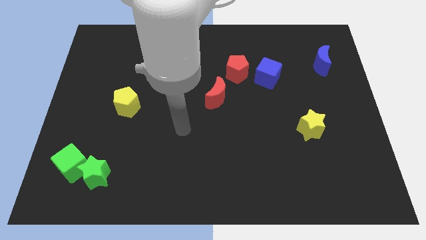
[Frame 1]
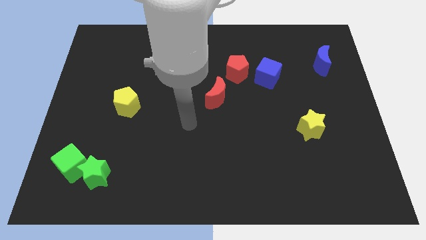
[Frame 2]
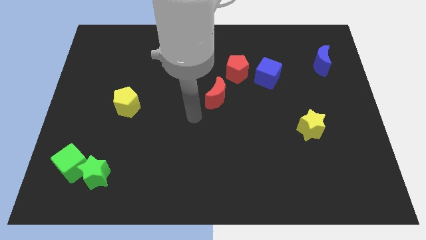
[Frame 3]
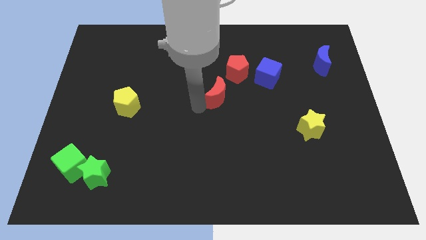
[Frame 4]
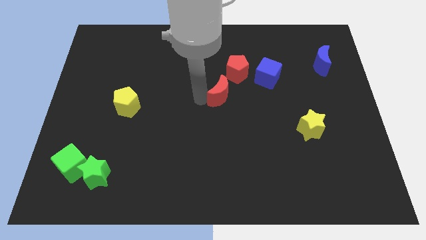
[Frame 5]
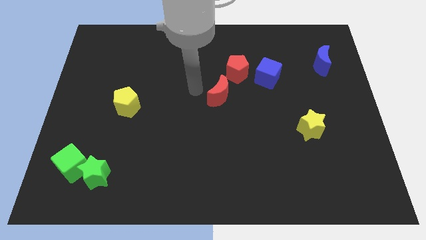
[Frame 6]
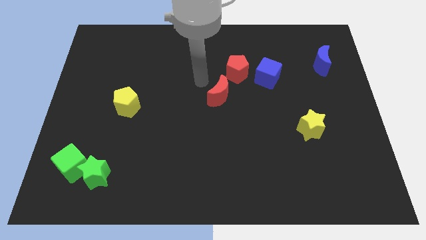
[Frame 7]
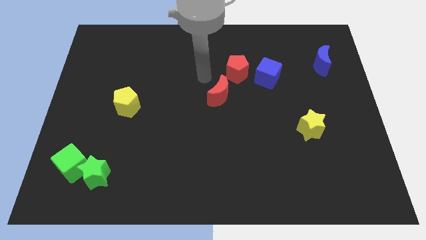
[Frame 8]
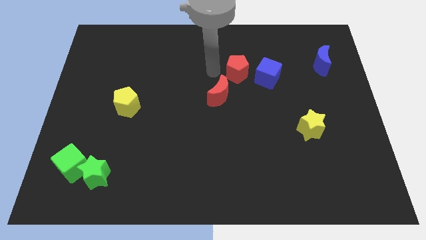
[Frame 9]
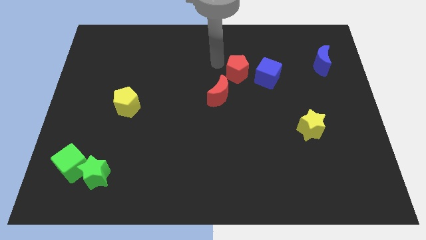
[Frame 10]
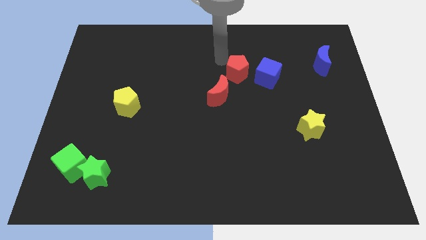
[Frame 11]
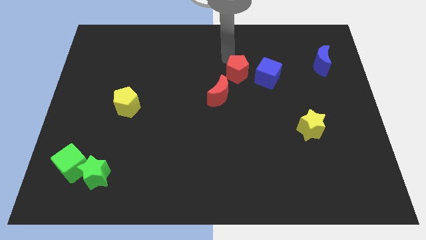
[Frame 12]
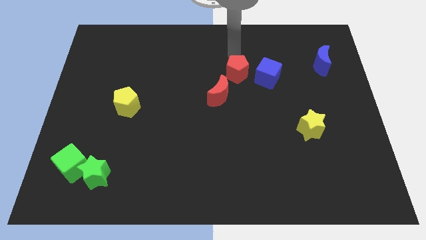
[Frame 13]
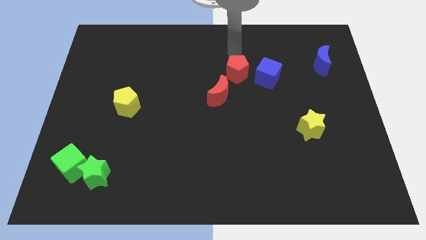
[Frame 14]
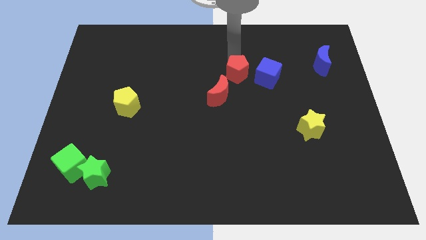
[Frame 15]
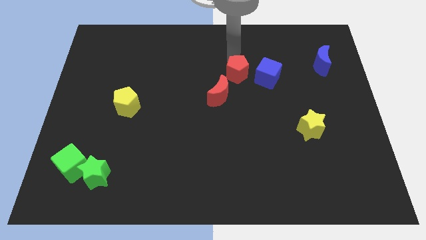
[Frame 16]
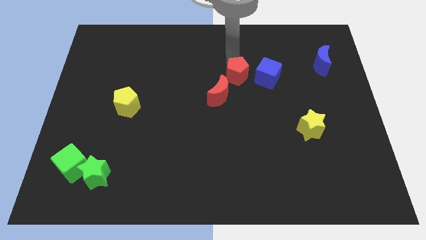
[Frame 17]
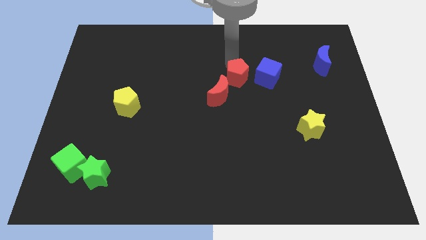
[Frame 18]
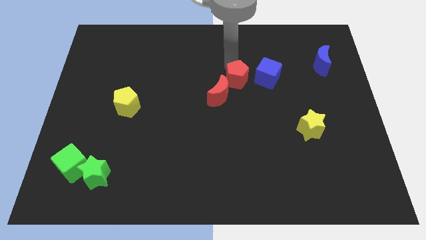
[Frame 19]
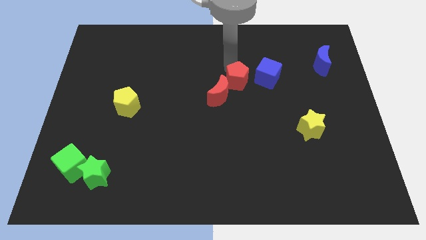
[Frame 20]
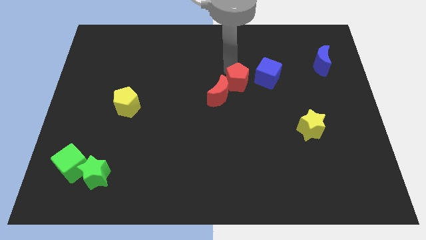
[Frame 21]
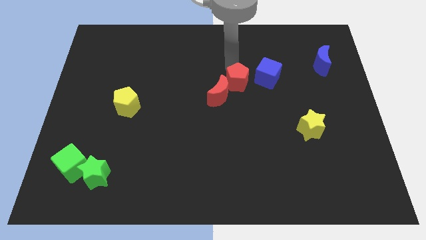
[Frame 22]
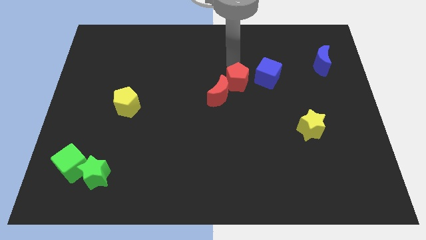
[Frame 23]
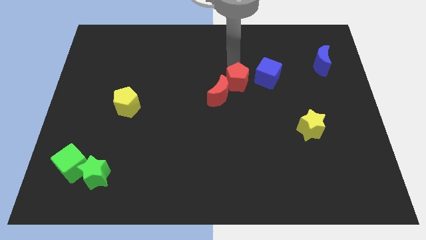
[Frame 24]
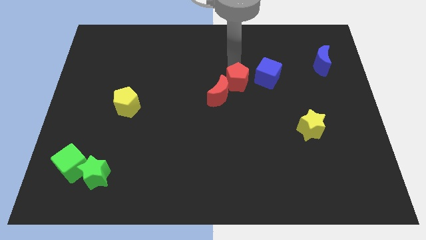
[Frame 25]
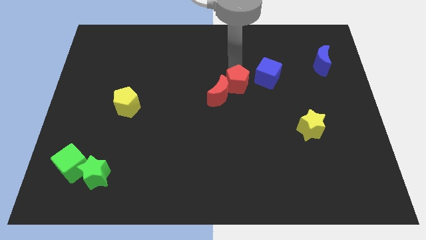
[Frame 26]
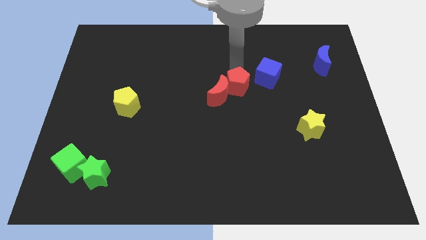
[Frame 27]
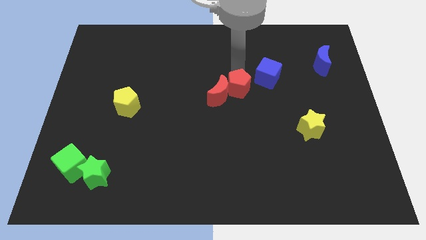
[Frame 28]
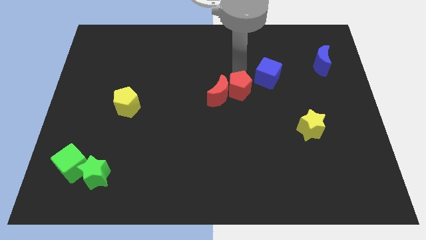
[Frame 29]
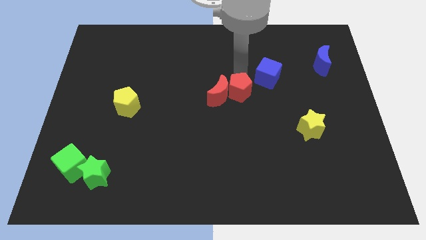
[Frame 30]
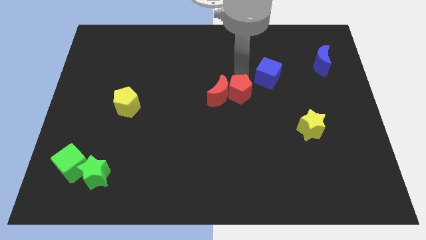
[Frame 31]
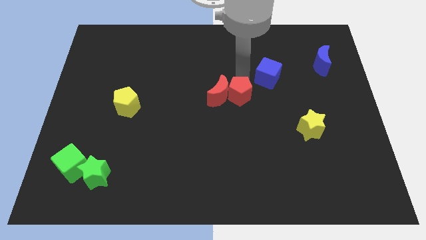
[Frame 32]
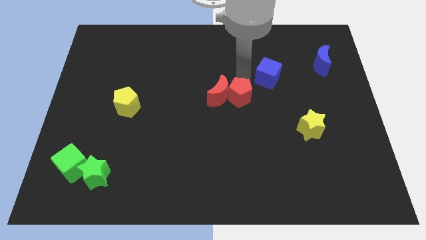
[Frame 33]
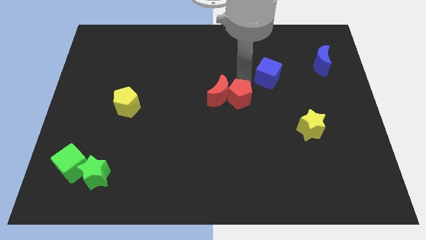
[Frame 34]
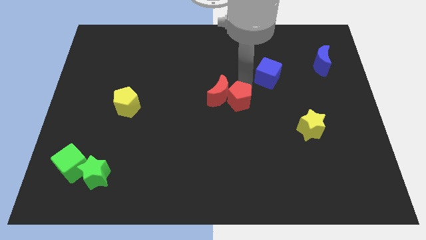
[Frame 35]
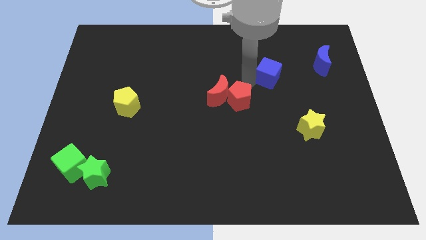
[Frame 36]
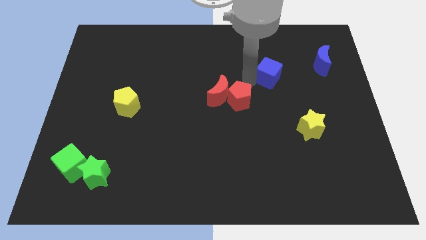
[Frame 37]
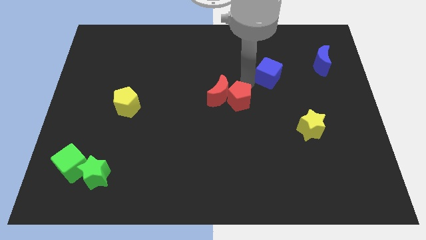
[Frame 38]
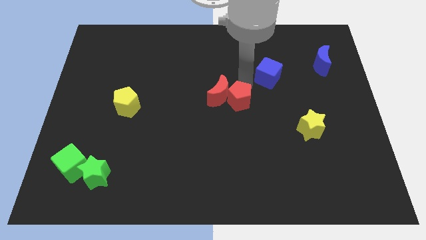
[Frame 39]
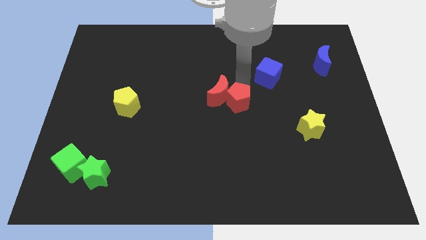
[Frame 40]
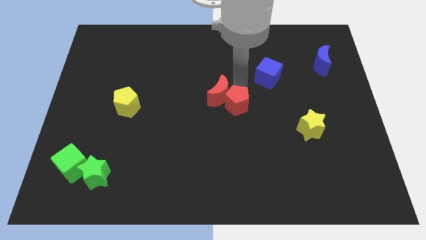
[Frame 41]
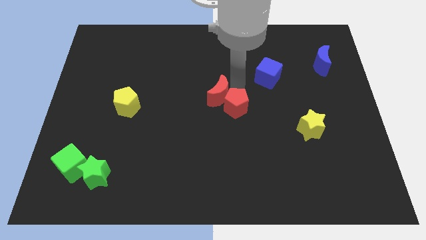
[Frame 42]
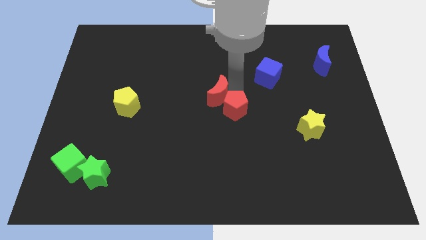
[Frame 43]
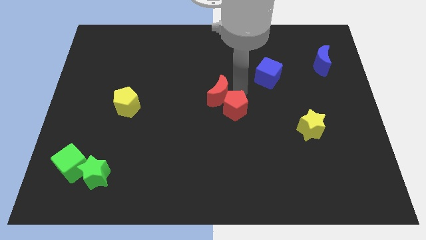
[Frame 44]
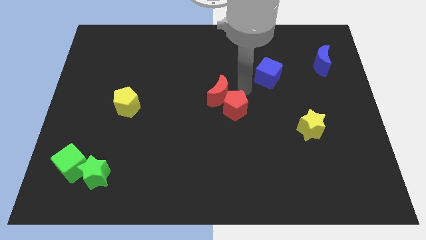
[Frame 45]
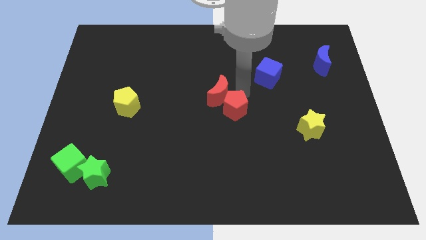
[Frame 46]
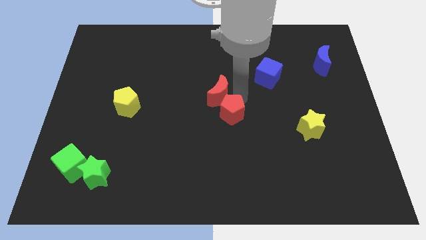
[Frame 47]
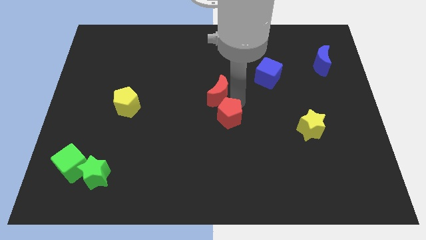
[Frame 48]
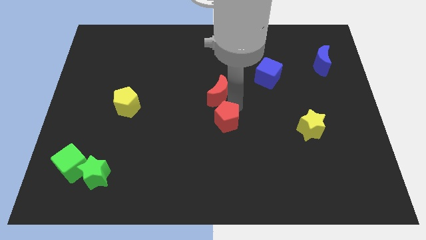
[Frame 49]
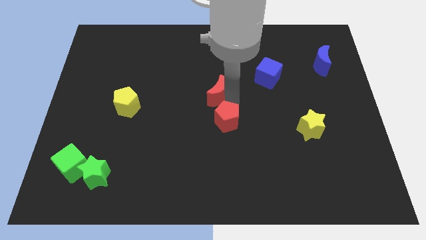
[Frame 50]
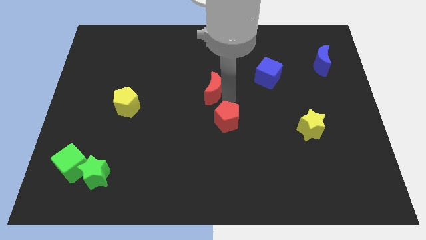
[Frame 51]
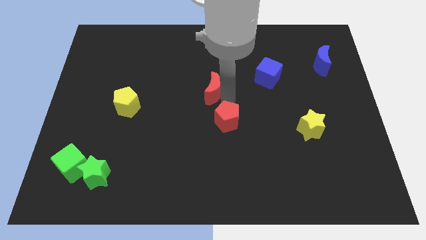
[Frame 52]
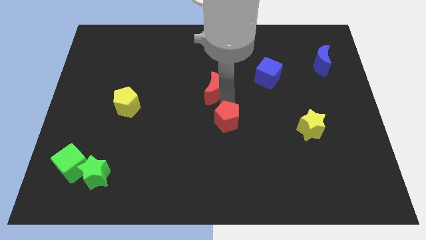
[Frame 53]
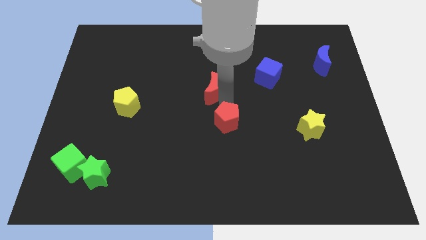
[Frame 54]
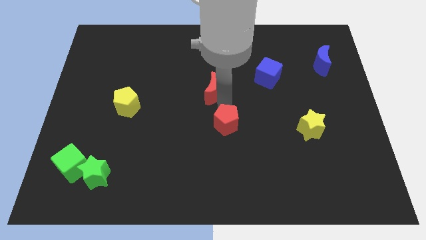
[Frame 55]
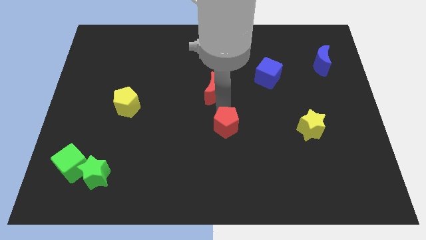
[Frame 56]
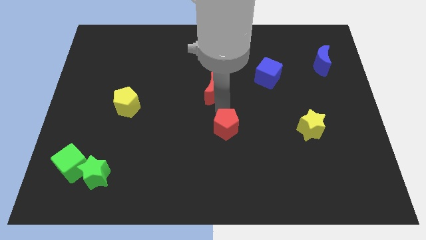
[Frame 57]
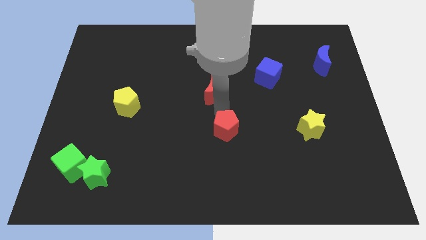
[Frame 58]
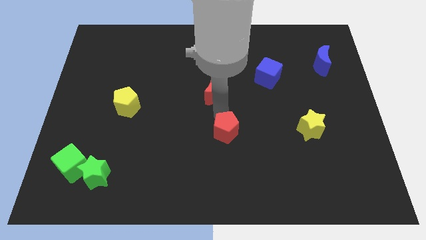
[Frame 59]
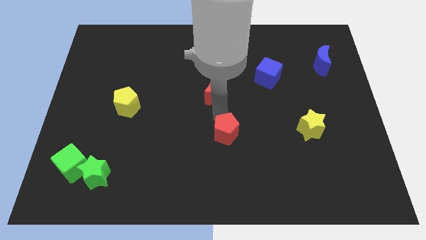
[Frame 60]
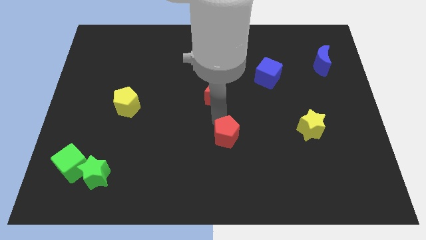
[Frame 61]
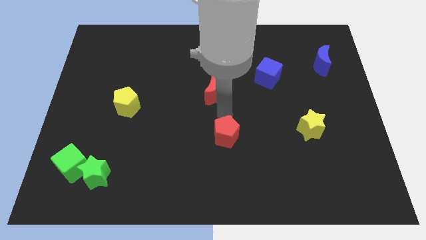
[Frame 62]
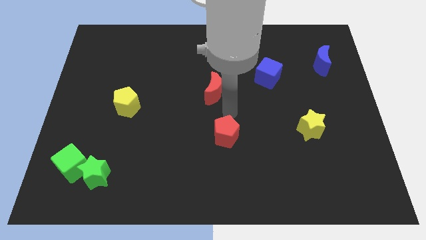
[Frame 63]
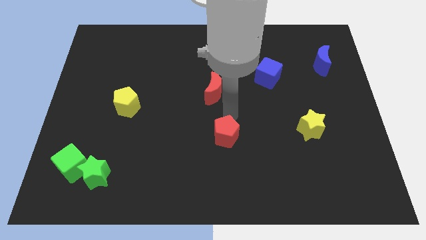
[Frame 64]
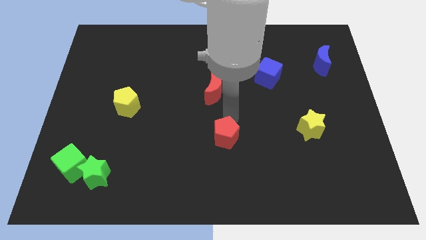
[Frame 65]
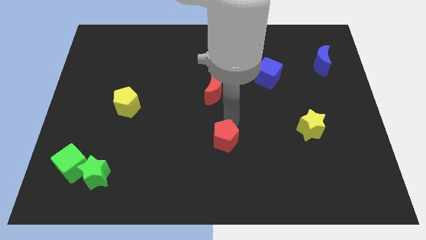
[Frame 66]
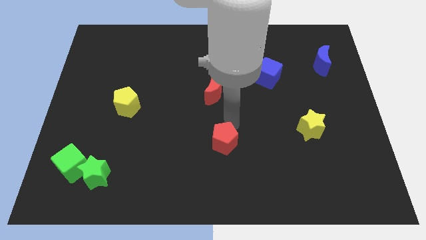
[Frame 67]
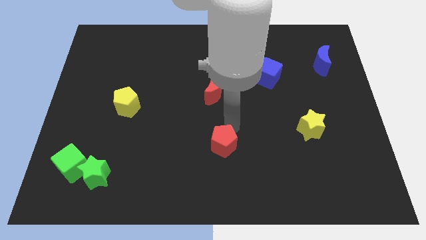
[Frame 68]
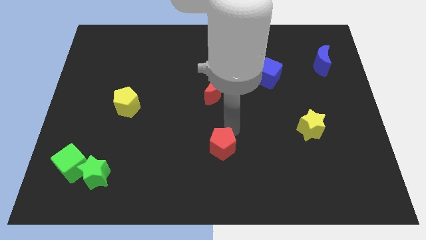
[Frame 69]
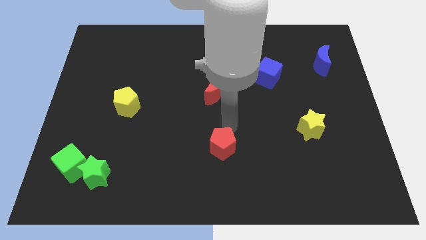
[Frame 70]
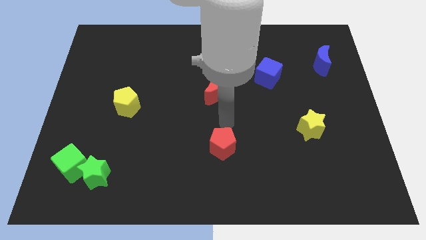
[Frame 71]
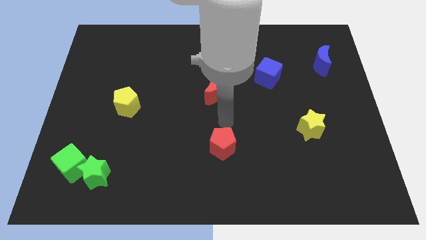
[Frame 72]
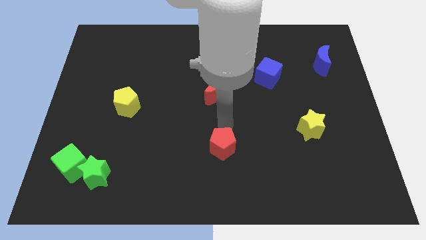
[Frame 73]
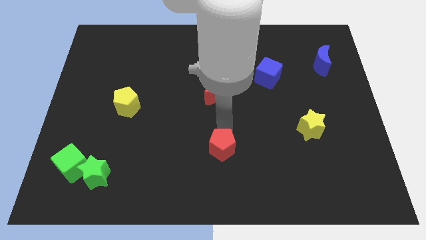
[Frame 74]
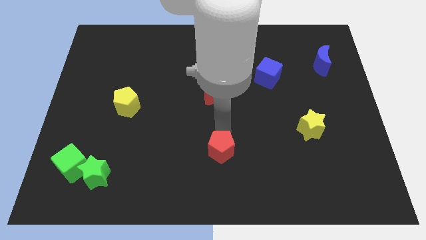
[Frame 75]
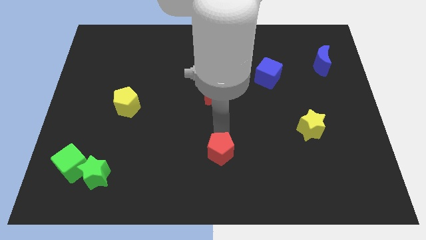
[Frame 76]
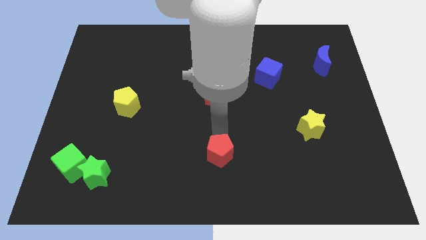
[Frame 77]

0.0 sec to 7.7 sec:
put the red pentagon to the bottom

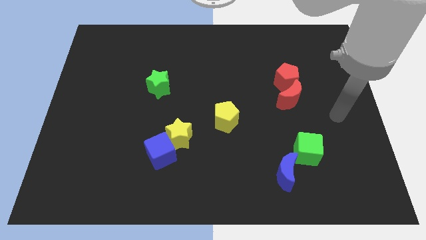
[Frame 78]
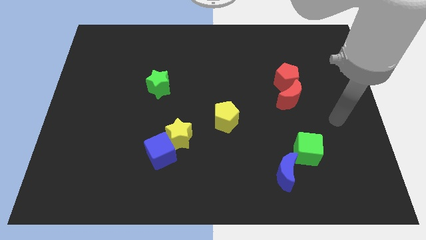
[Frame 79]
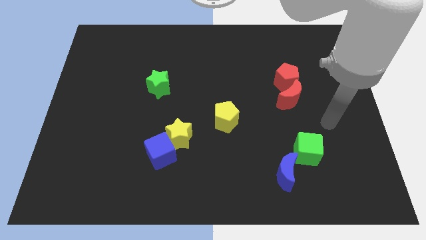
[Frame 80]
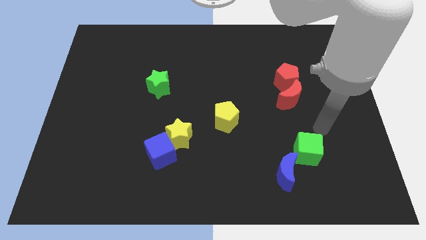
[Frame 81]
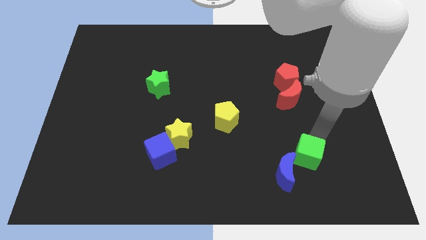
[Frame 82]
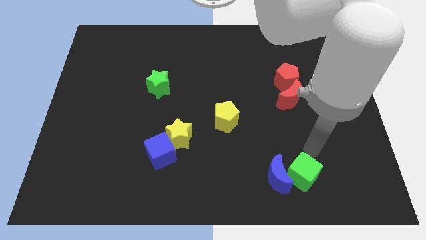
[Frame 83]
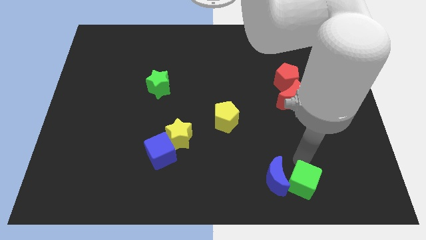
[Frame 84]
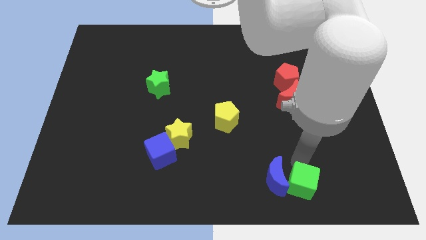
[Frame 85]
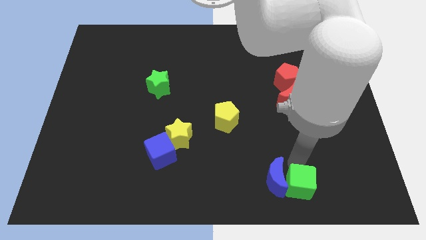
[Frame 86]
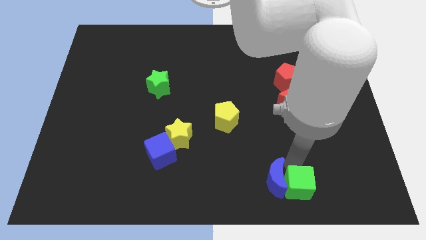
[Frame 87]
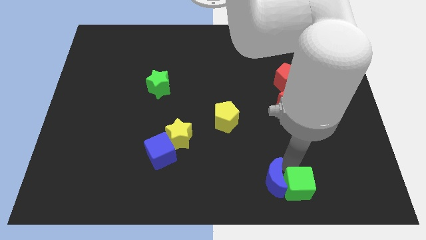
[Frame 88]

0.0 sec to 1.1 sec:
put the blue moon to the bottom side
